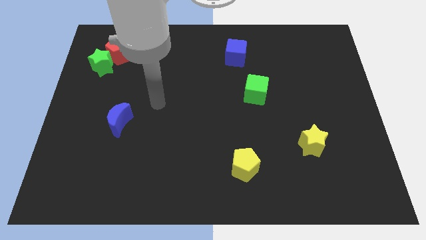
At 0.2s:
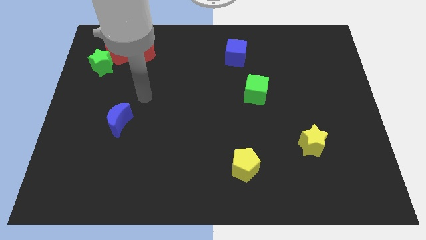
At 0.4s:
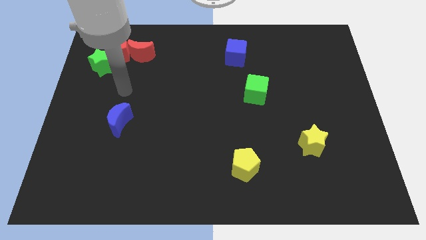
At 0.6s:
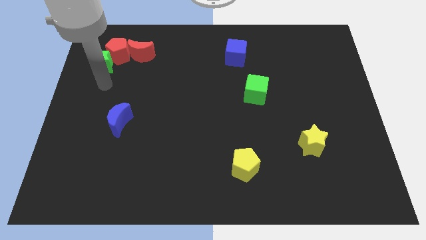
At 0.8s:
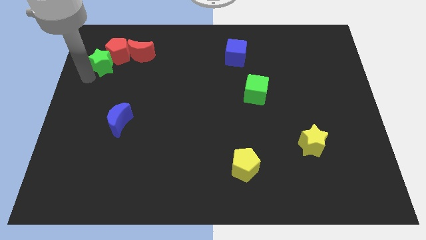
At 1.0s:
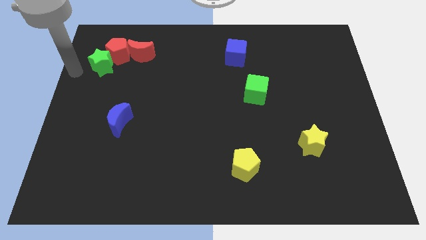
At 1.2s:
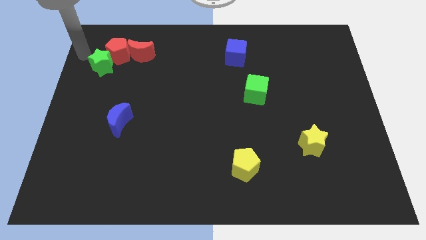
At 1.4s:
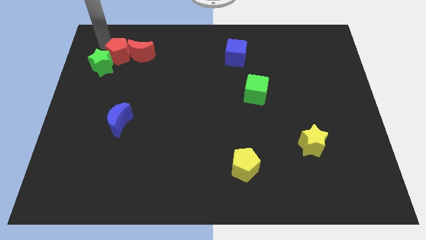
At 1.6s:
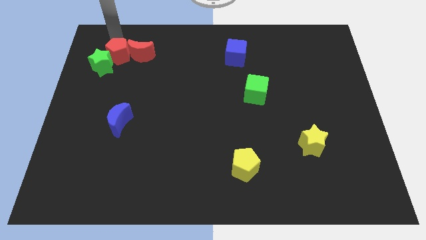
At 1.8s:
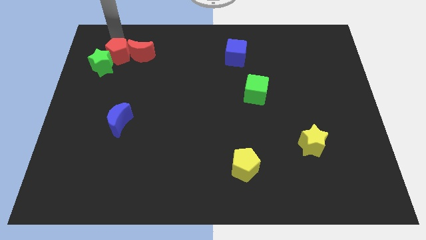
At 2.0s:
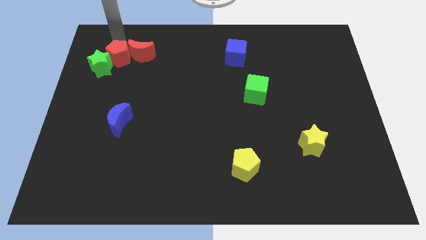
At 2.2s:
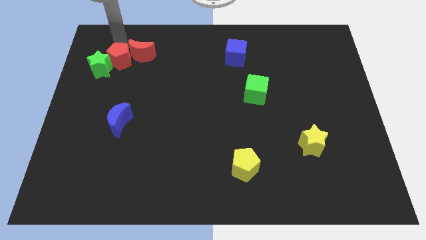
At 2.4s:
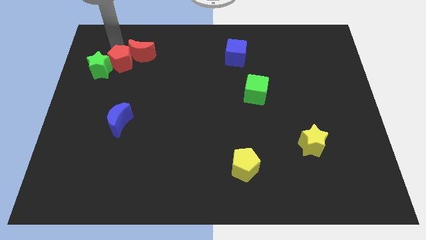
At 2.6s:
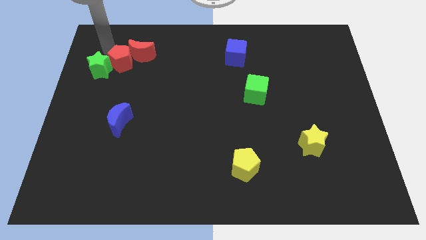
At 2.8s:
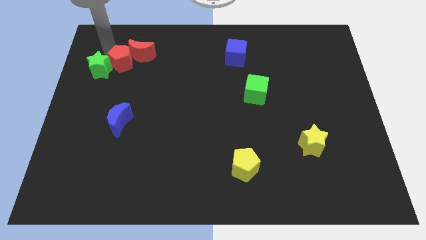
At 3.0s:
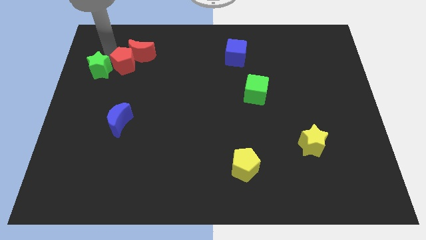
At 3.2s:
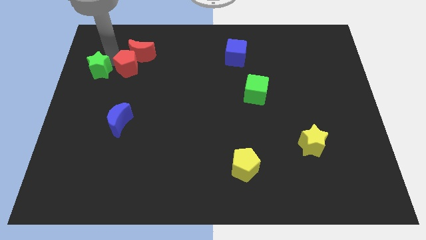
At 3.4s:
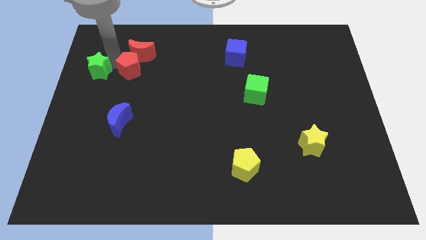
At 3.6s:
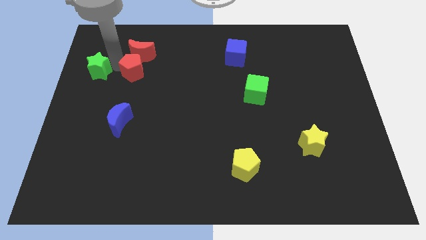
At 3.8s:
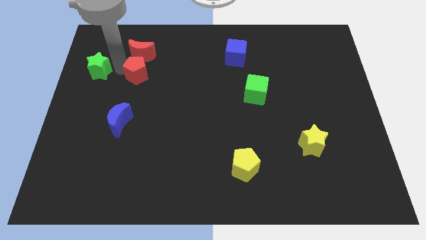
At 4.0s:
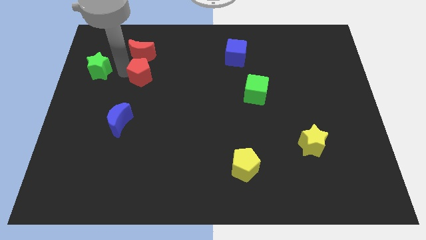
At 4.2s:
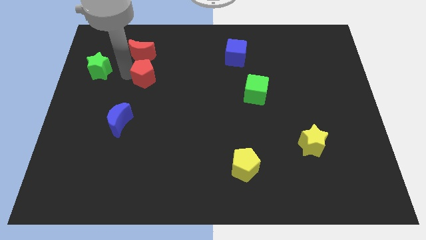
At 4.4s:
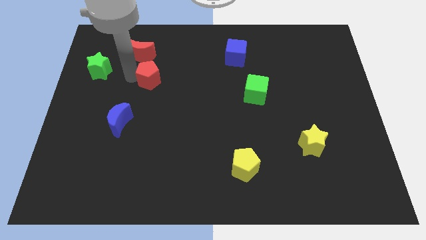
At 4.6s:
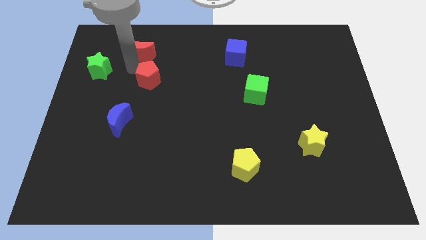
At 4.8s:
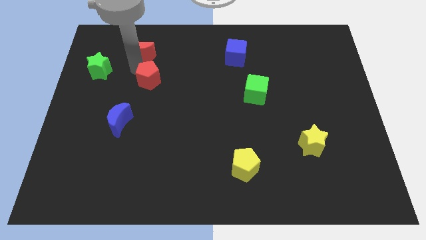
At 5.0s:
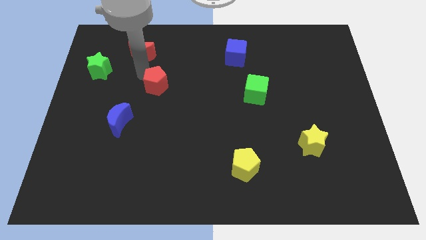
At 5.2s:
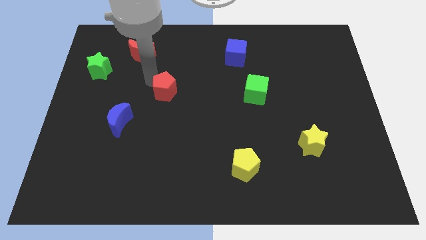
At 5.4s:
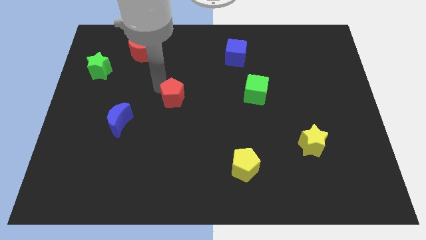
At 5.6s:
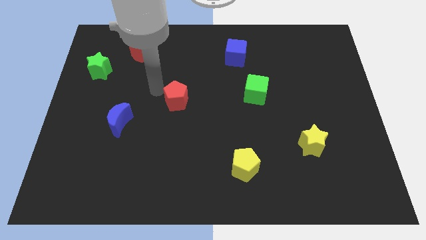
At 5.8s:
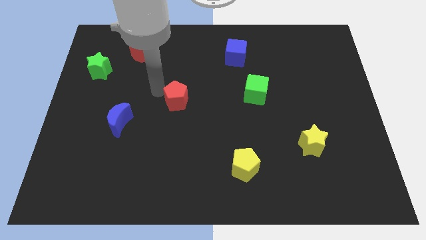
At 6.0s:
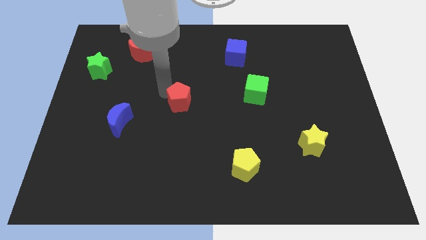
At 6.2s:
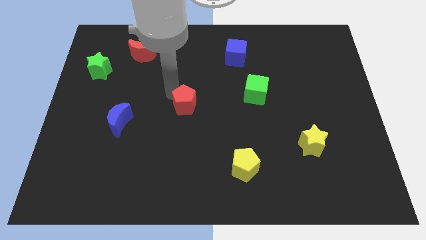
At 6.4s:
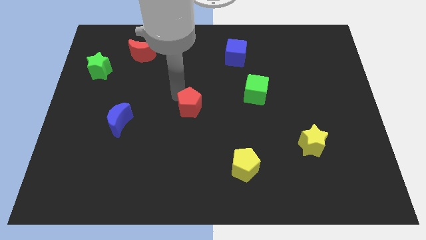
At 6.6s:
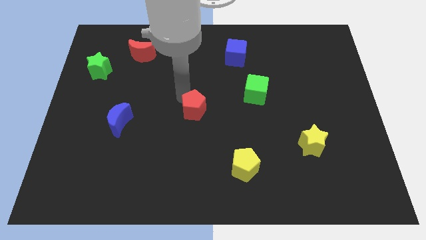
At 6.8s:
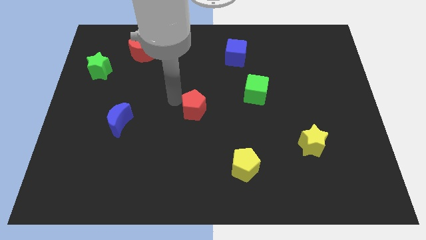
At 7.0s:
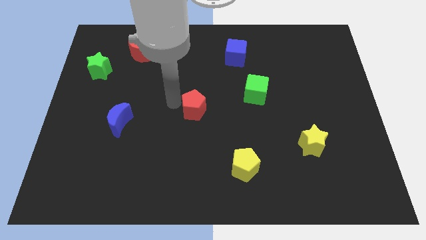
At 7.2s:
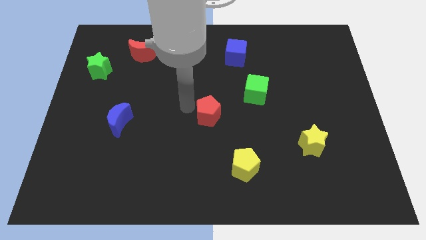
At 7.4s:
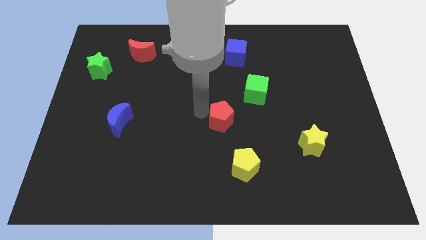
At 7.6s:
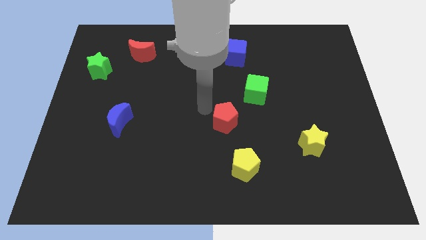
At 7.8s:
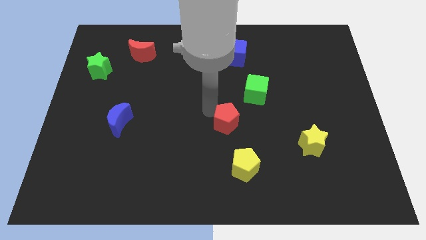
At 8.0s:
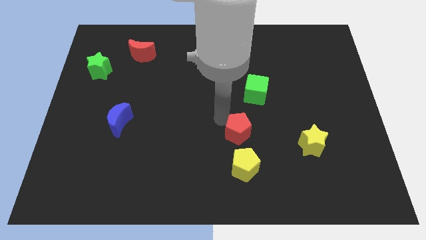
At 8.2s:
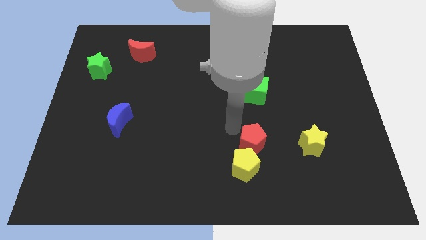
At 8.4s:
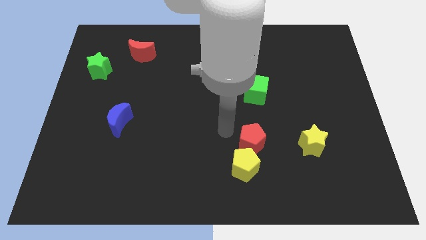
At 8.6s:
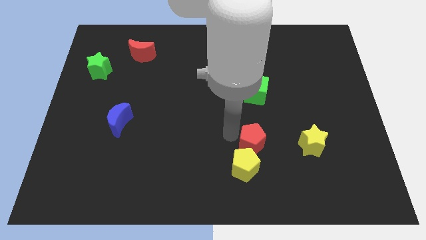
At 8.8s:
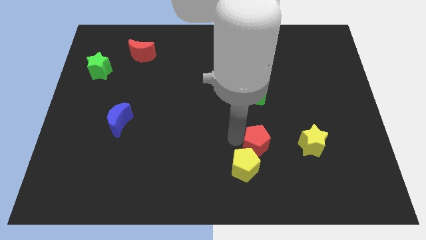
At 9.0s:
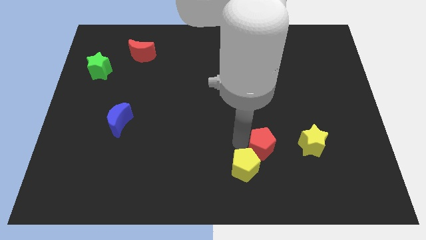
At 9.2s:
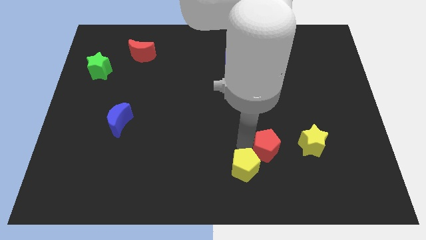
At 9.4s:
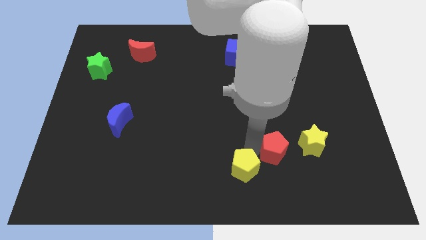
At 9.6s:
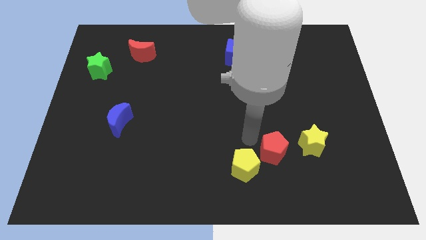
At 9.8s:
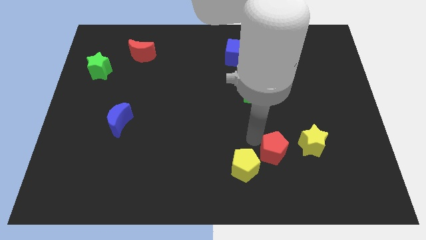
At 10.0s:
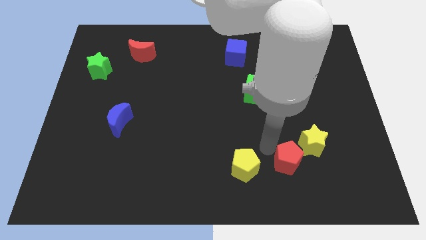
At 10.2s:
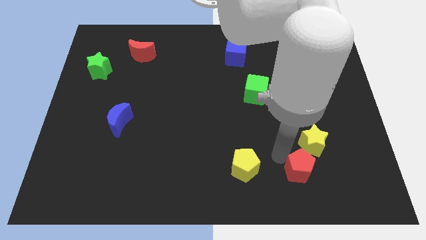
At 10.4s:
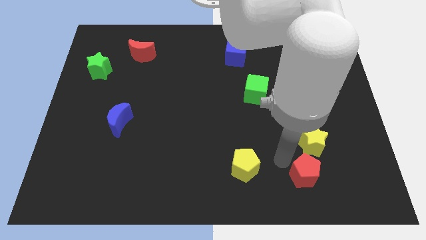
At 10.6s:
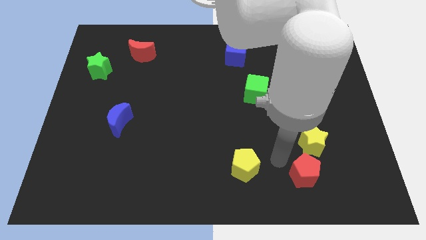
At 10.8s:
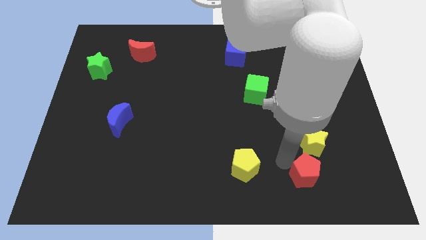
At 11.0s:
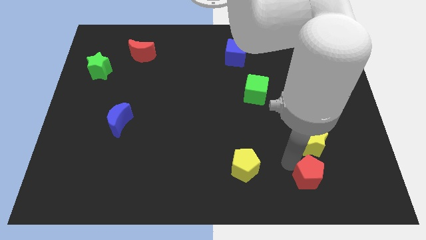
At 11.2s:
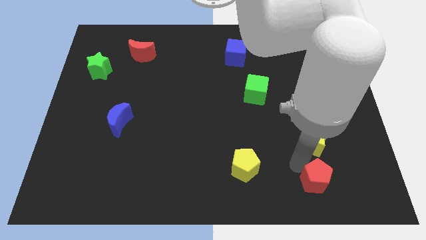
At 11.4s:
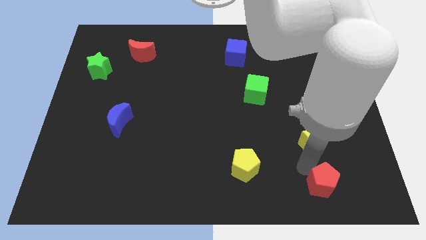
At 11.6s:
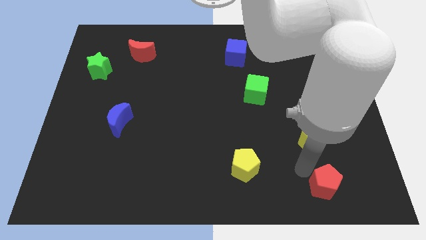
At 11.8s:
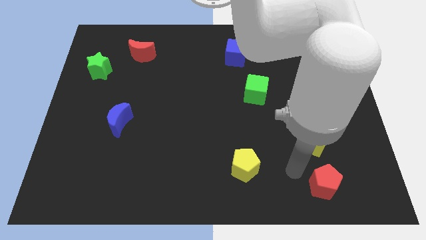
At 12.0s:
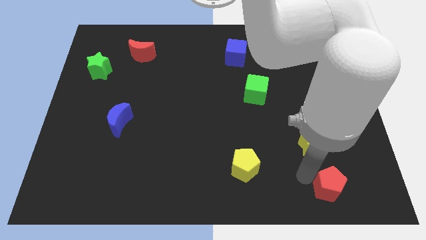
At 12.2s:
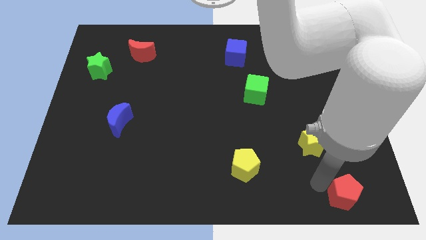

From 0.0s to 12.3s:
push the red pentagon to the bottom right
